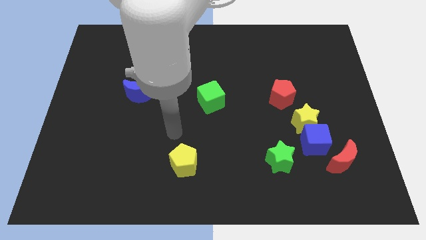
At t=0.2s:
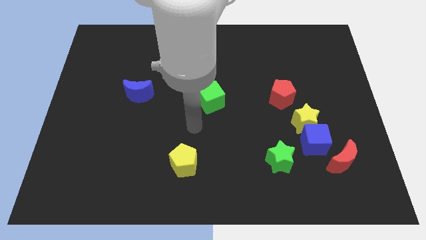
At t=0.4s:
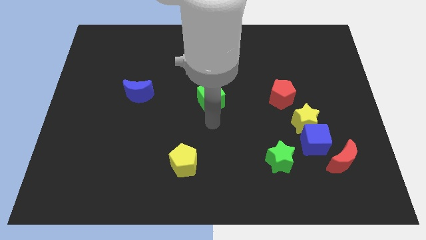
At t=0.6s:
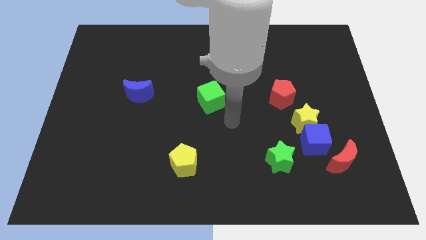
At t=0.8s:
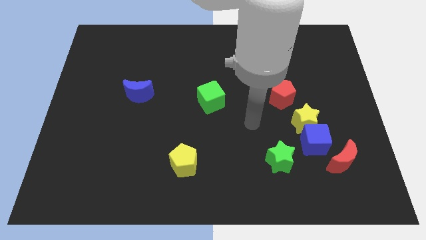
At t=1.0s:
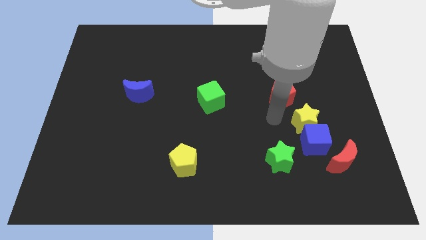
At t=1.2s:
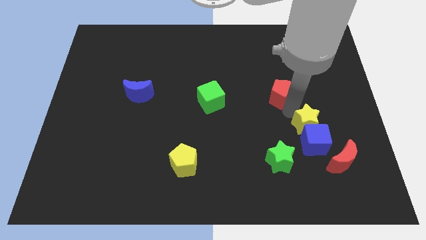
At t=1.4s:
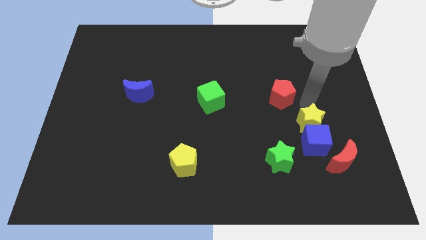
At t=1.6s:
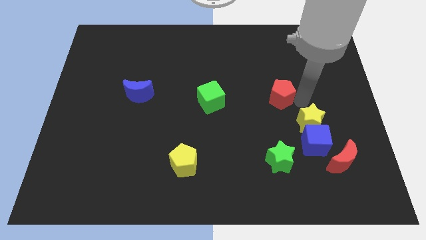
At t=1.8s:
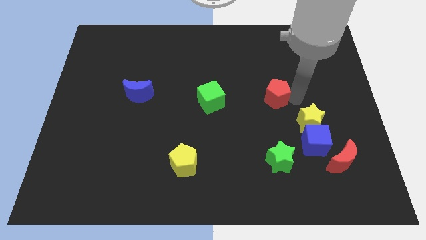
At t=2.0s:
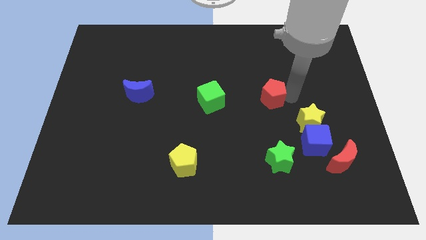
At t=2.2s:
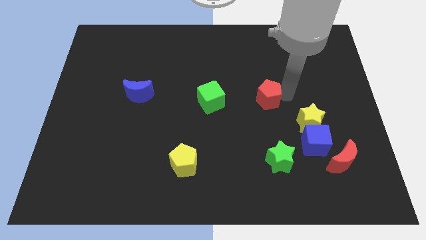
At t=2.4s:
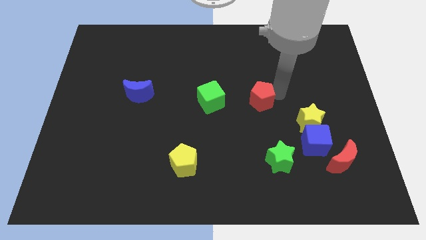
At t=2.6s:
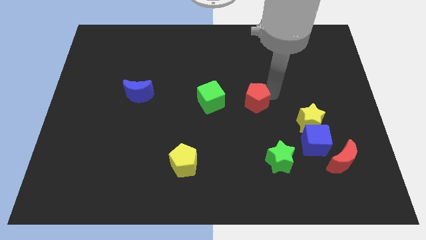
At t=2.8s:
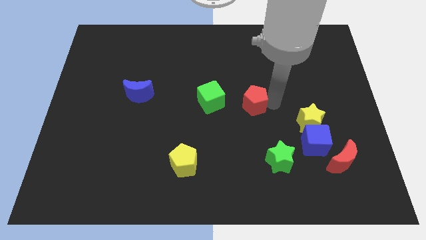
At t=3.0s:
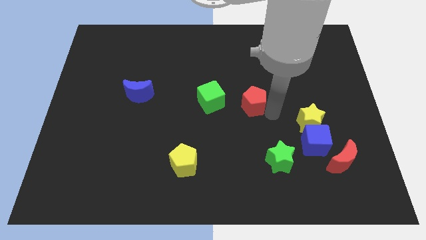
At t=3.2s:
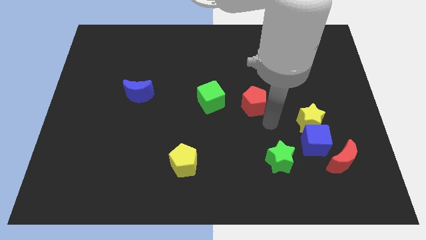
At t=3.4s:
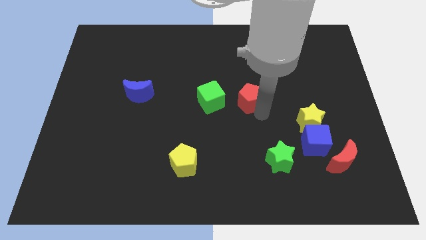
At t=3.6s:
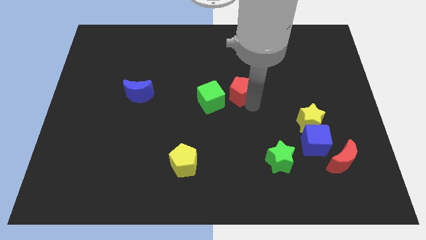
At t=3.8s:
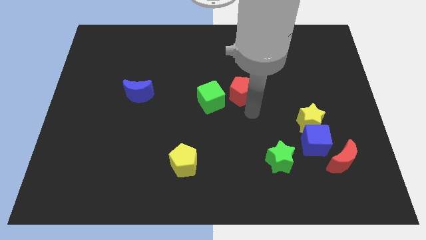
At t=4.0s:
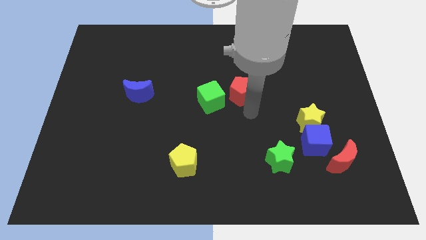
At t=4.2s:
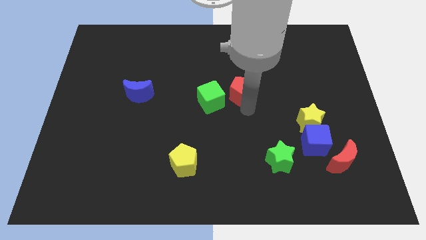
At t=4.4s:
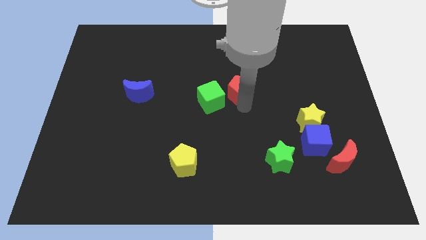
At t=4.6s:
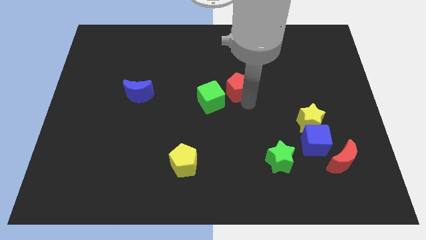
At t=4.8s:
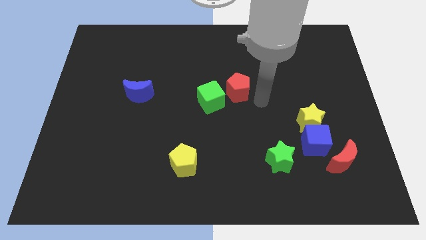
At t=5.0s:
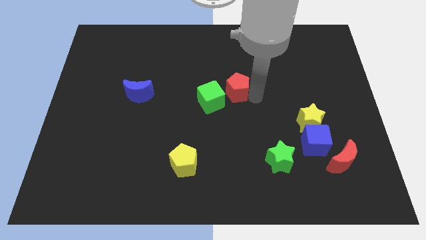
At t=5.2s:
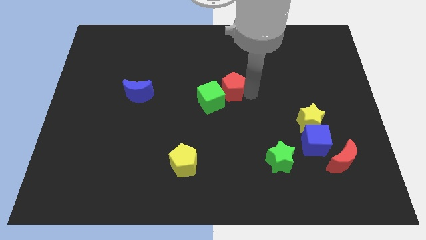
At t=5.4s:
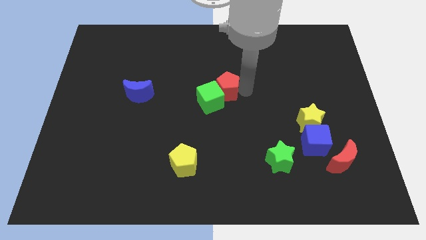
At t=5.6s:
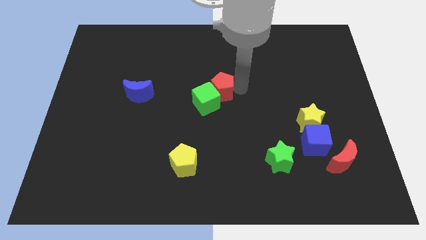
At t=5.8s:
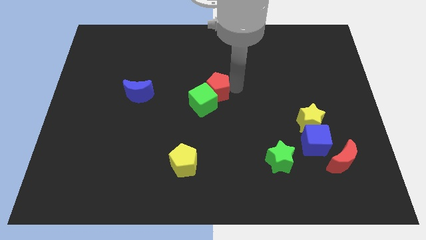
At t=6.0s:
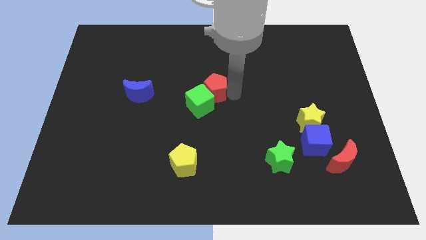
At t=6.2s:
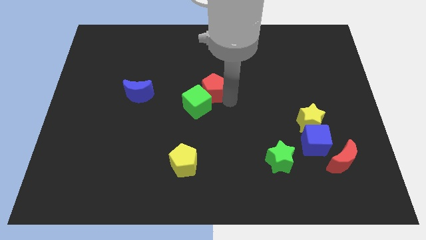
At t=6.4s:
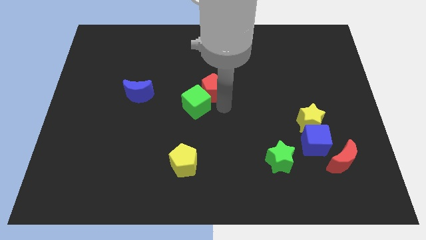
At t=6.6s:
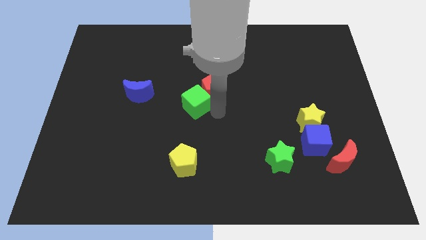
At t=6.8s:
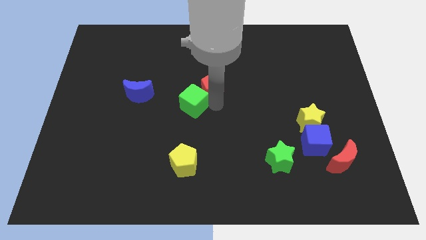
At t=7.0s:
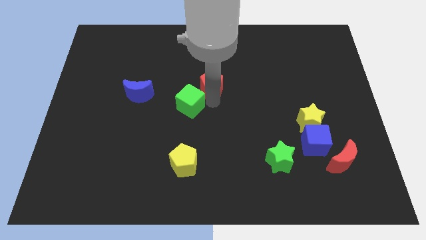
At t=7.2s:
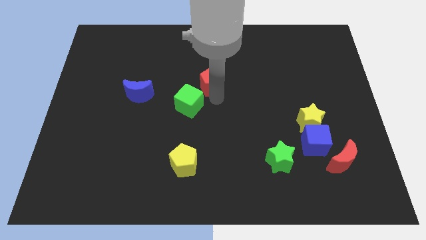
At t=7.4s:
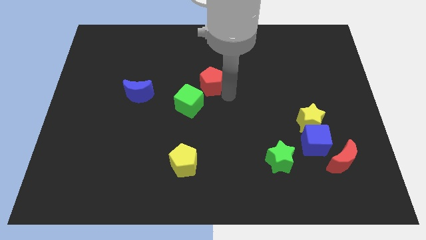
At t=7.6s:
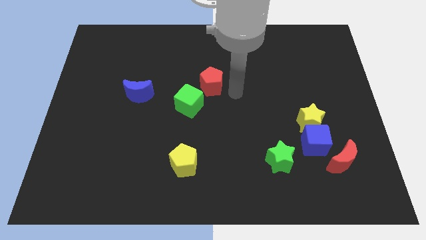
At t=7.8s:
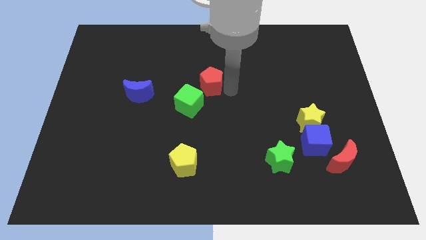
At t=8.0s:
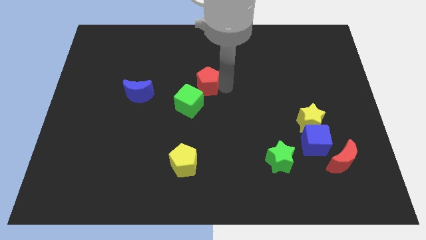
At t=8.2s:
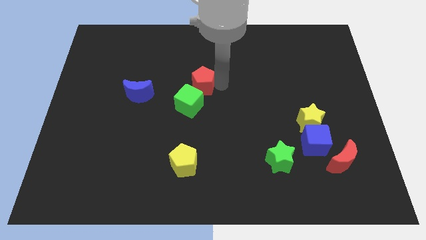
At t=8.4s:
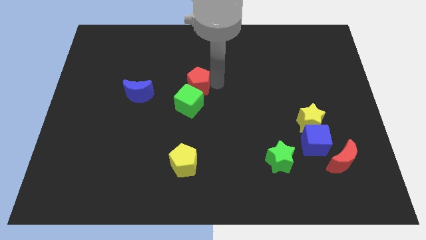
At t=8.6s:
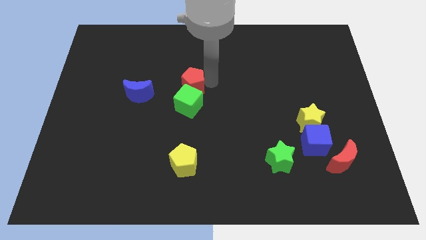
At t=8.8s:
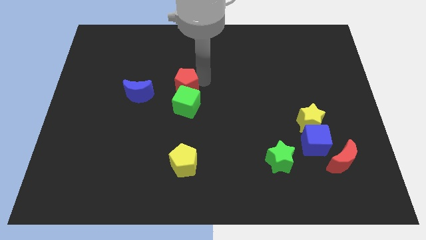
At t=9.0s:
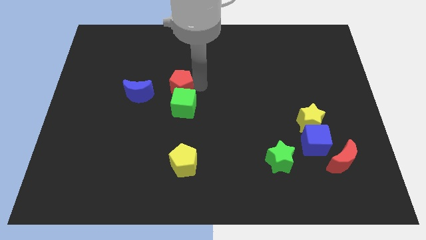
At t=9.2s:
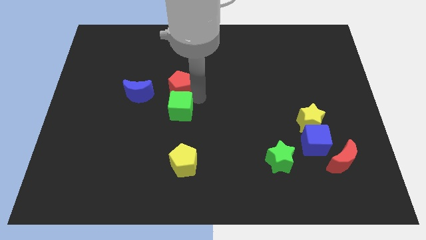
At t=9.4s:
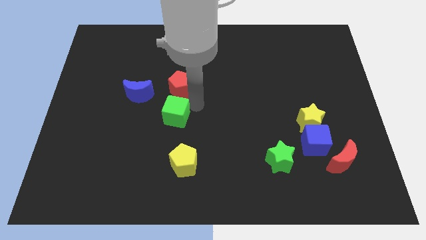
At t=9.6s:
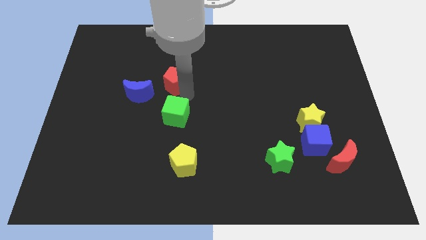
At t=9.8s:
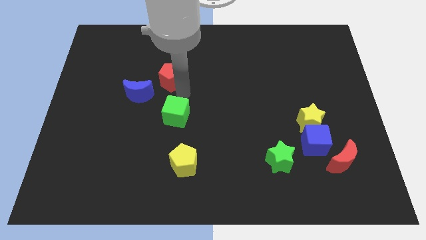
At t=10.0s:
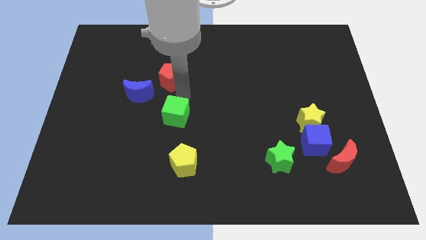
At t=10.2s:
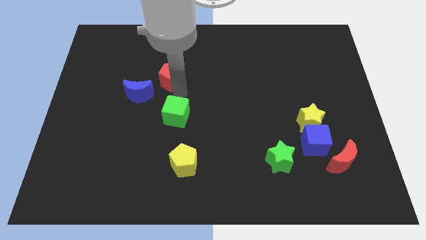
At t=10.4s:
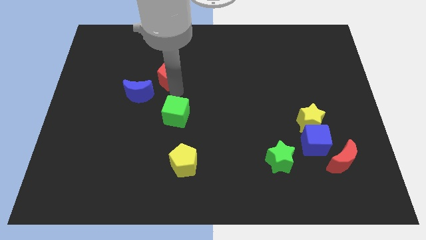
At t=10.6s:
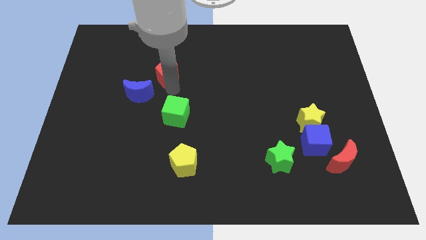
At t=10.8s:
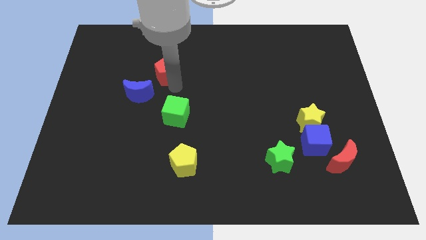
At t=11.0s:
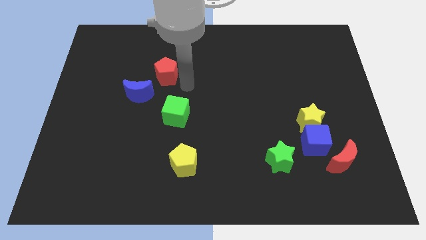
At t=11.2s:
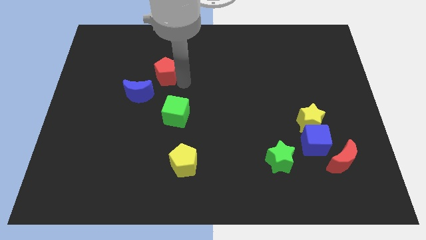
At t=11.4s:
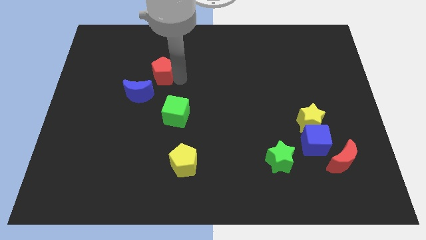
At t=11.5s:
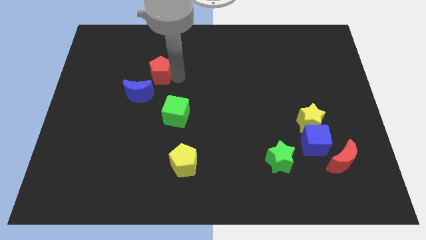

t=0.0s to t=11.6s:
slide the red pentagon to the top of the blue moon
